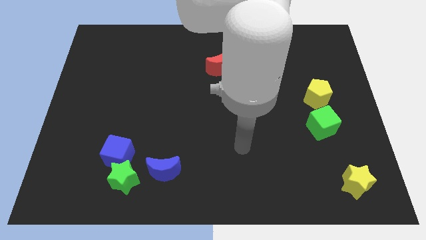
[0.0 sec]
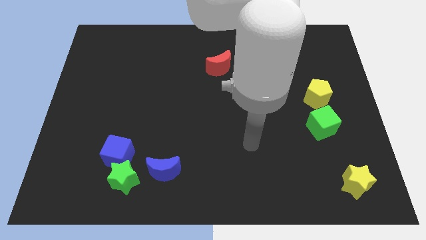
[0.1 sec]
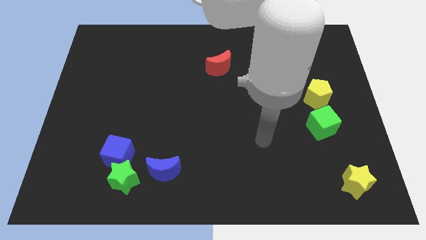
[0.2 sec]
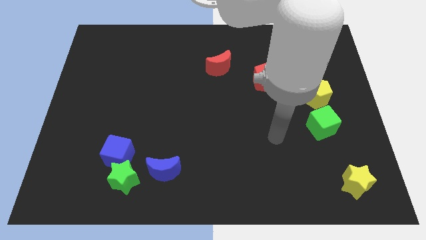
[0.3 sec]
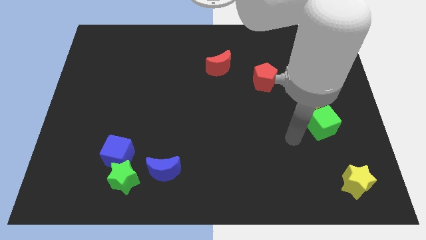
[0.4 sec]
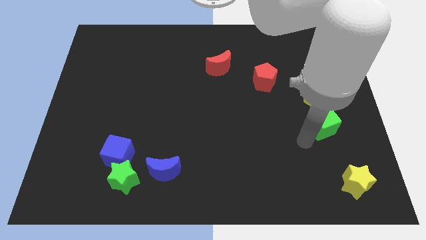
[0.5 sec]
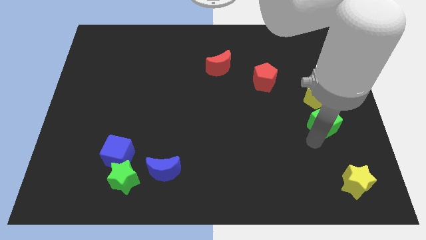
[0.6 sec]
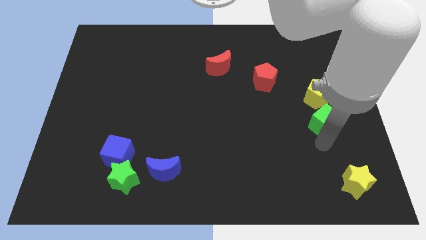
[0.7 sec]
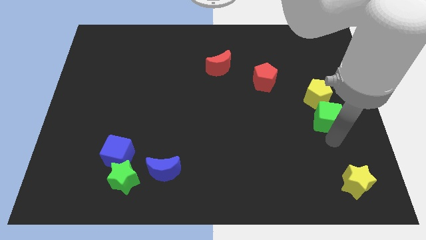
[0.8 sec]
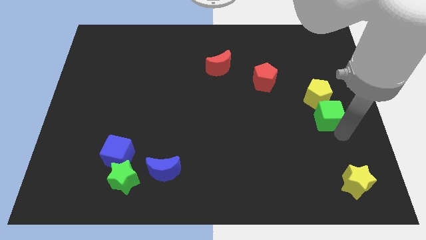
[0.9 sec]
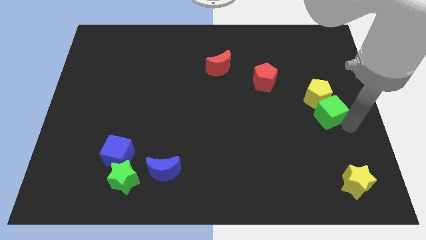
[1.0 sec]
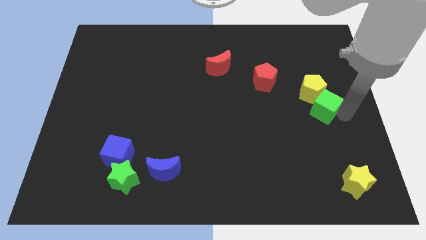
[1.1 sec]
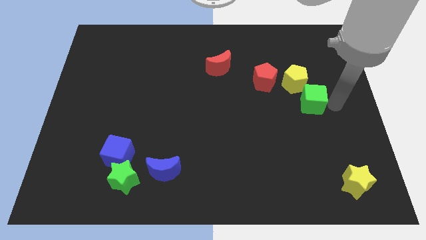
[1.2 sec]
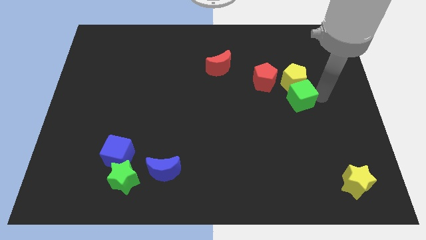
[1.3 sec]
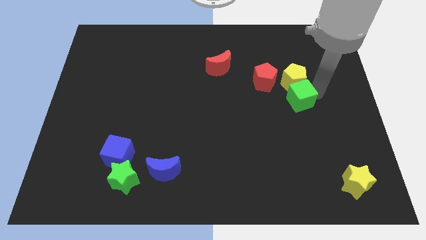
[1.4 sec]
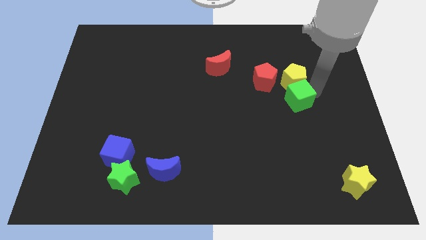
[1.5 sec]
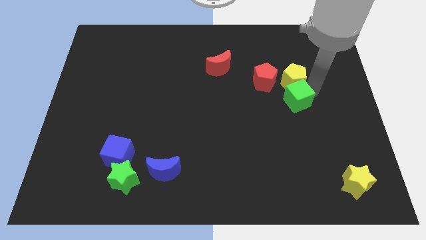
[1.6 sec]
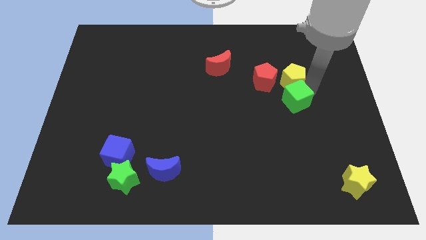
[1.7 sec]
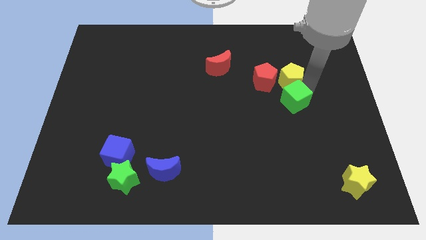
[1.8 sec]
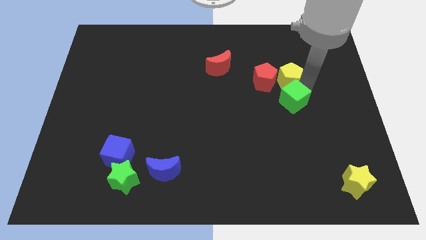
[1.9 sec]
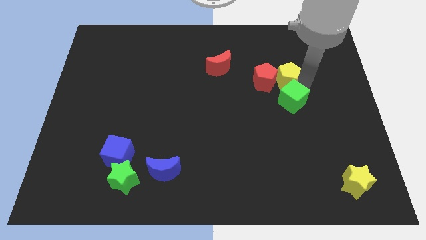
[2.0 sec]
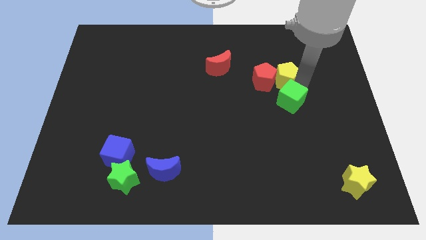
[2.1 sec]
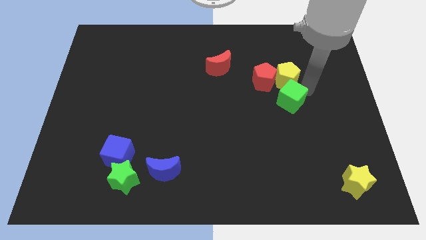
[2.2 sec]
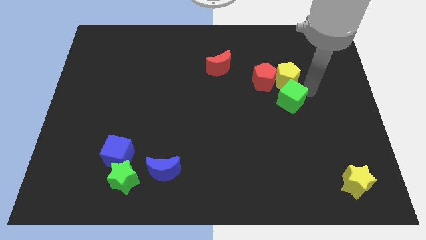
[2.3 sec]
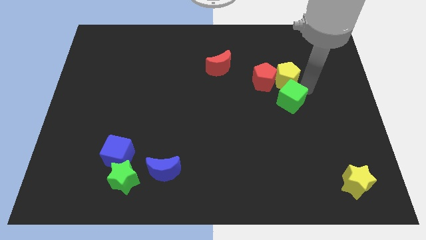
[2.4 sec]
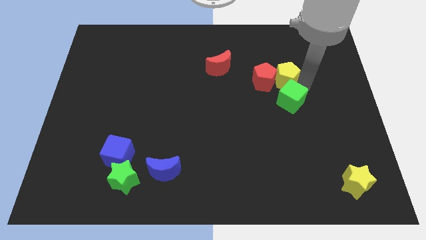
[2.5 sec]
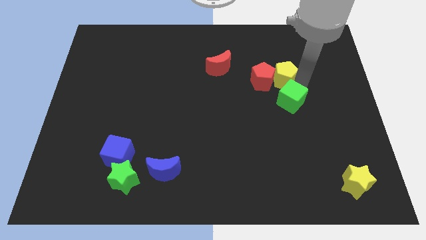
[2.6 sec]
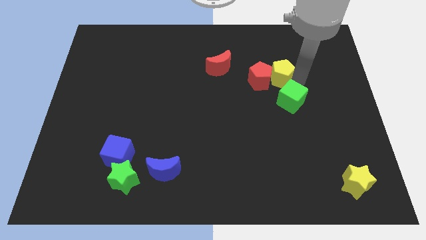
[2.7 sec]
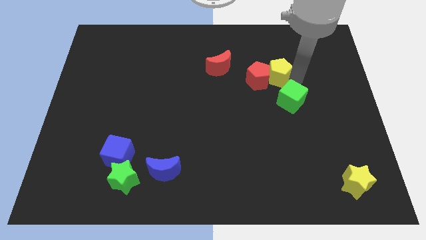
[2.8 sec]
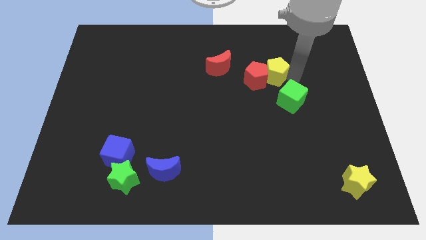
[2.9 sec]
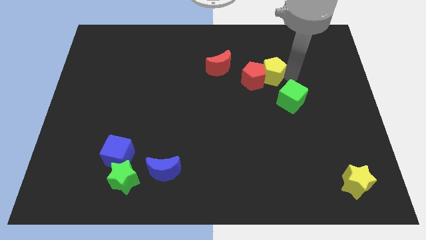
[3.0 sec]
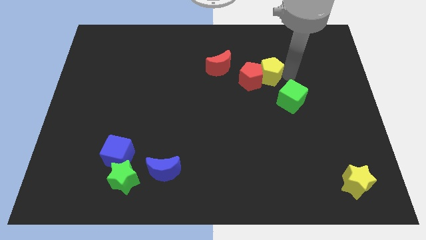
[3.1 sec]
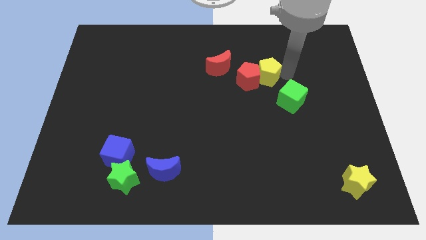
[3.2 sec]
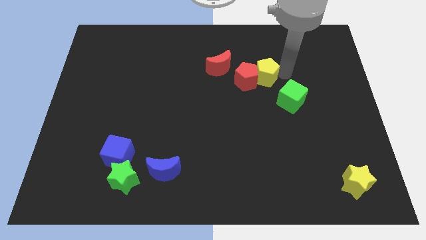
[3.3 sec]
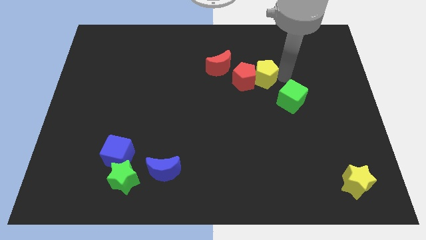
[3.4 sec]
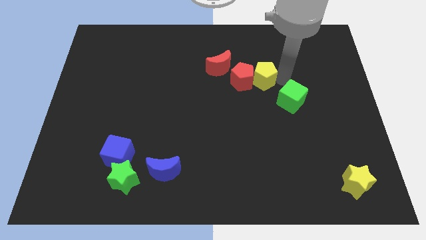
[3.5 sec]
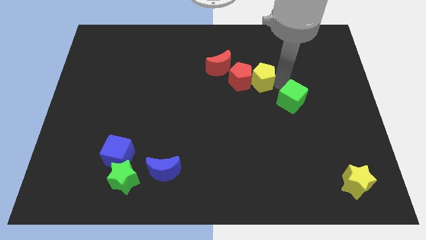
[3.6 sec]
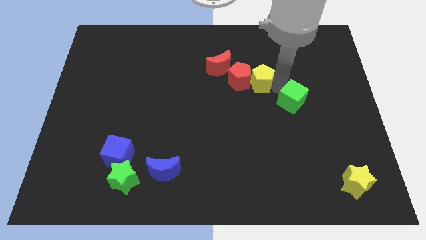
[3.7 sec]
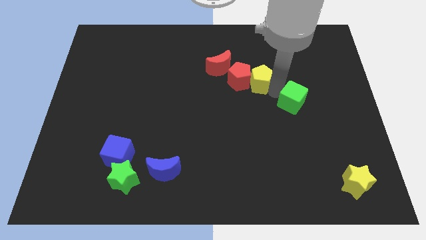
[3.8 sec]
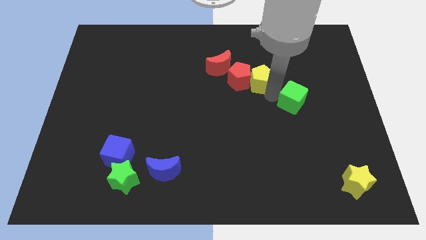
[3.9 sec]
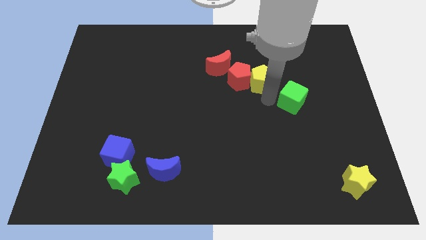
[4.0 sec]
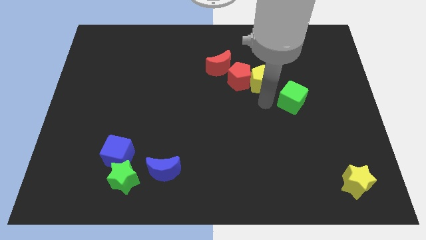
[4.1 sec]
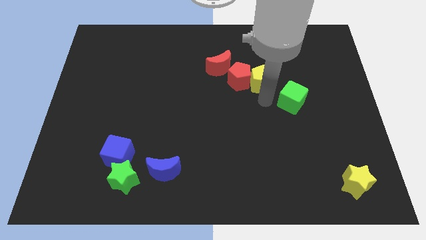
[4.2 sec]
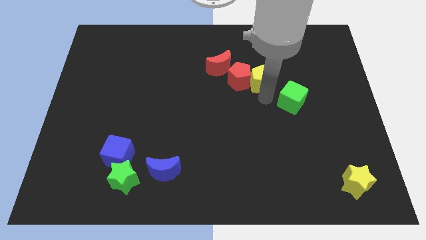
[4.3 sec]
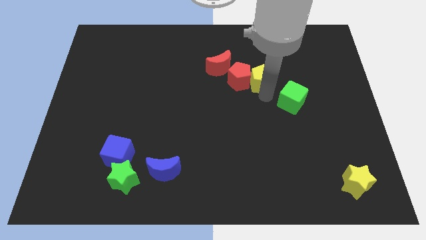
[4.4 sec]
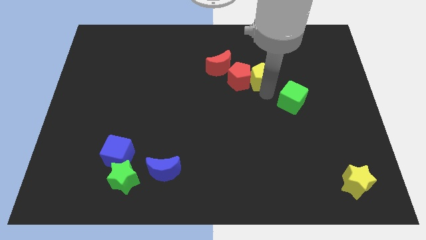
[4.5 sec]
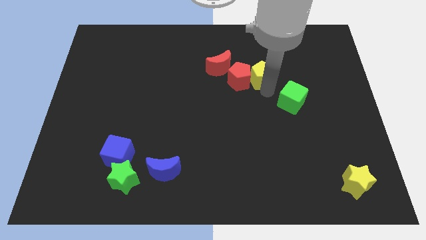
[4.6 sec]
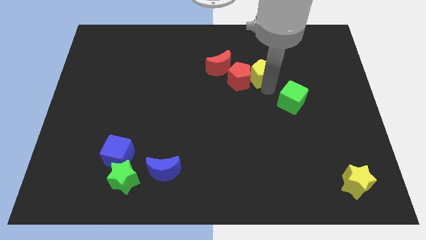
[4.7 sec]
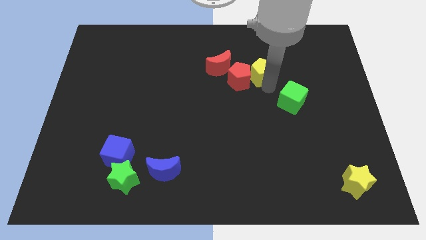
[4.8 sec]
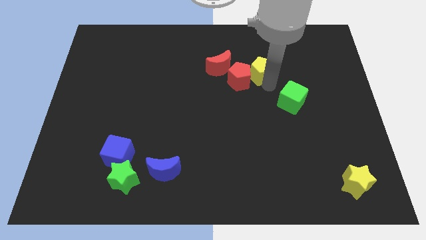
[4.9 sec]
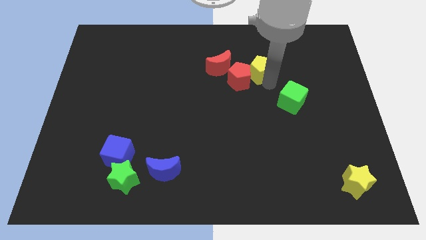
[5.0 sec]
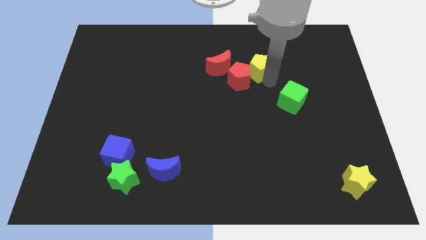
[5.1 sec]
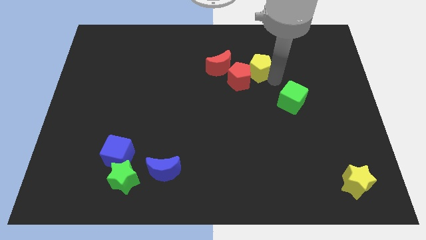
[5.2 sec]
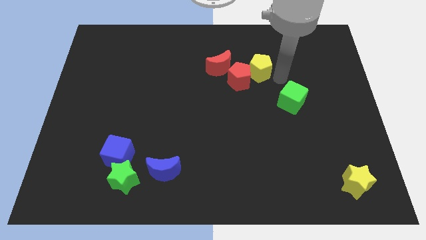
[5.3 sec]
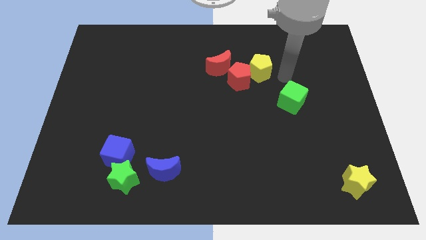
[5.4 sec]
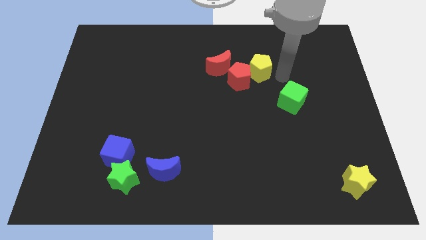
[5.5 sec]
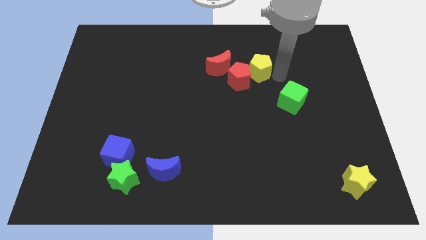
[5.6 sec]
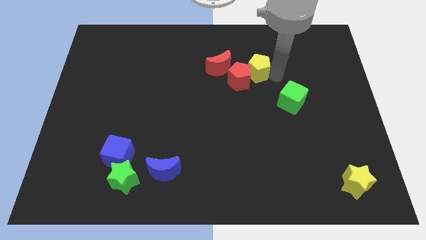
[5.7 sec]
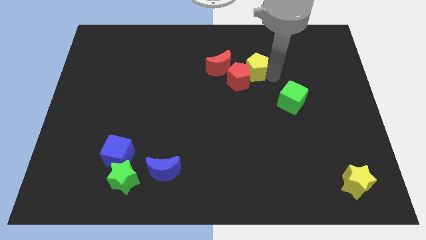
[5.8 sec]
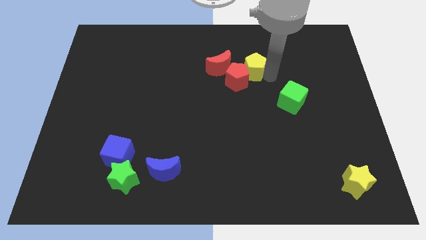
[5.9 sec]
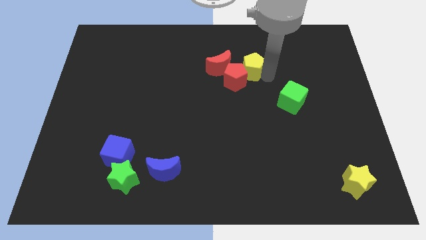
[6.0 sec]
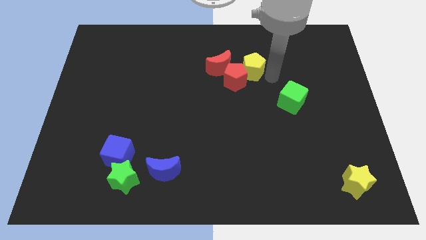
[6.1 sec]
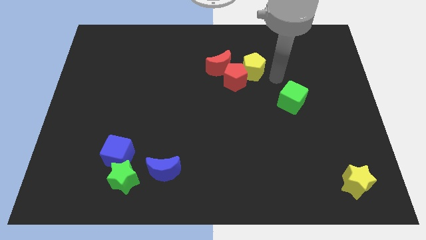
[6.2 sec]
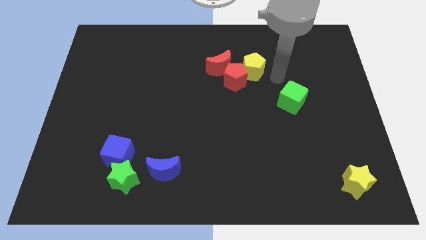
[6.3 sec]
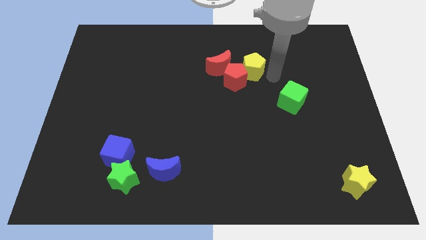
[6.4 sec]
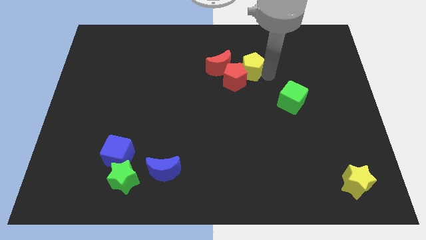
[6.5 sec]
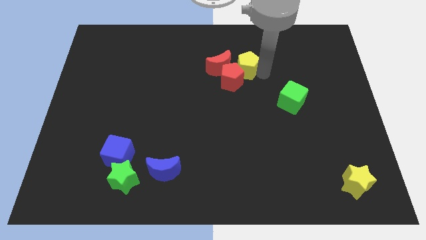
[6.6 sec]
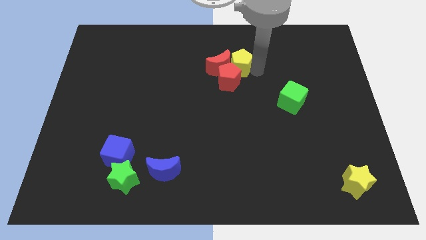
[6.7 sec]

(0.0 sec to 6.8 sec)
push the yellow pentagon to the red moon

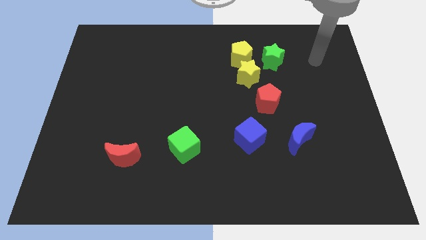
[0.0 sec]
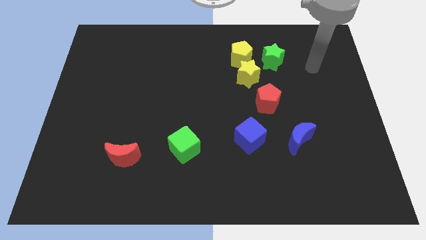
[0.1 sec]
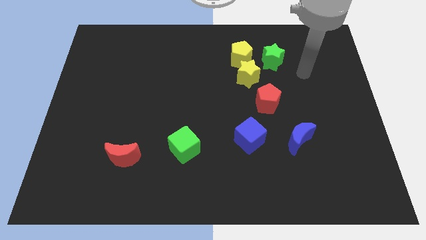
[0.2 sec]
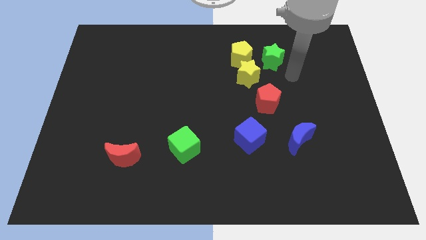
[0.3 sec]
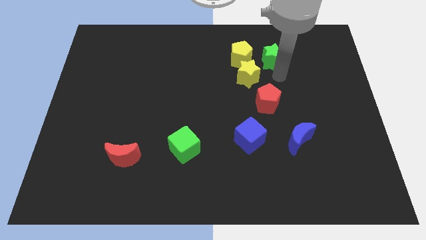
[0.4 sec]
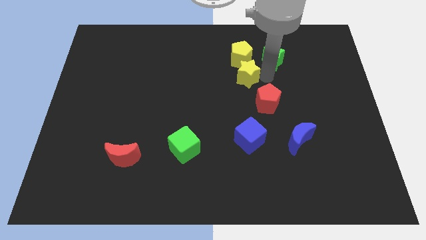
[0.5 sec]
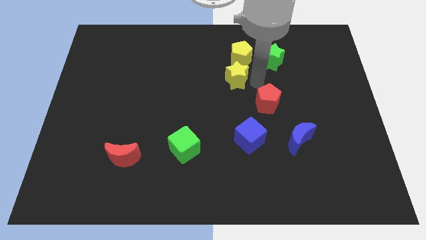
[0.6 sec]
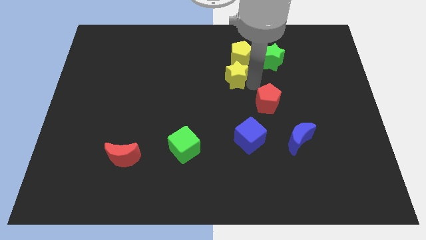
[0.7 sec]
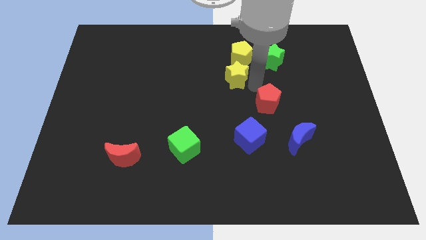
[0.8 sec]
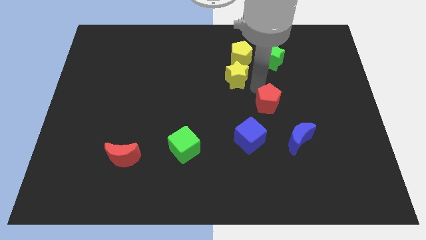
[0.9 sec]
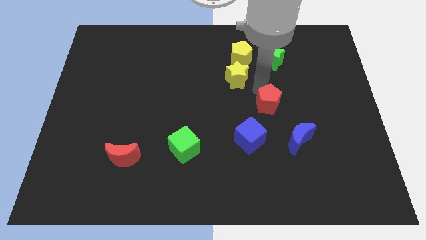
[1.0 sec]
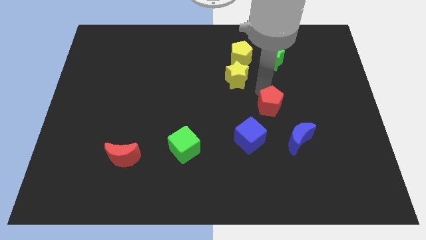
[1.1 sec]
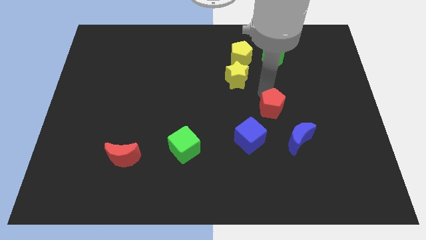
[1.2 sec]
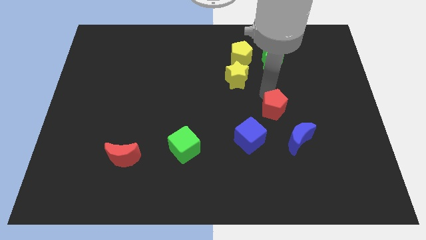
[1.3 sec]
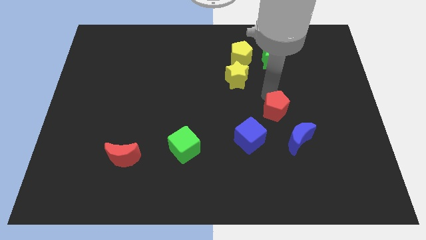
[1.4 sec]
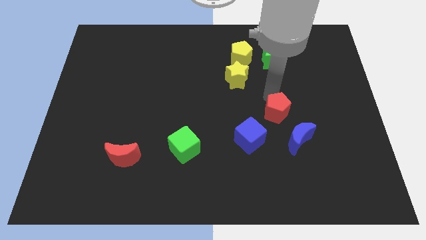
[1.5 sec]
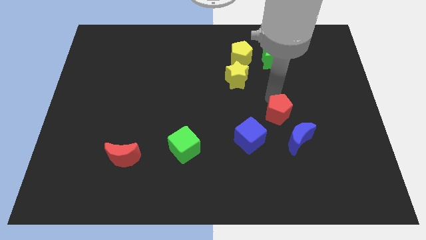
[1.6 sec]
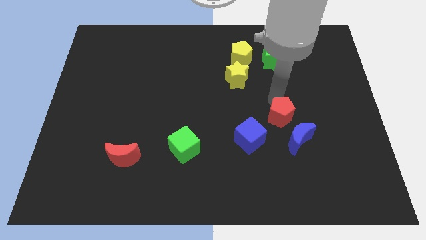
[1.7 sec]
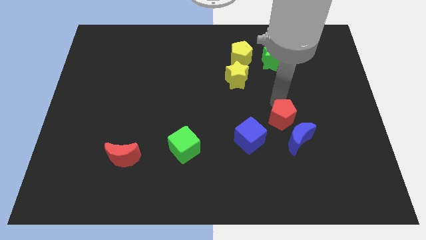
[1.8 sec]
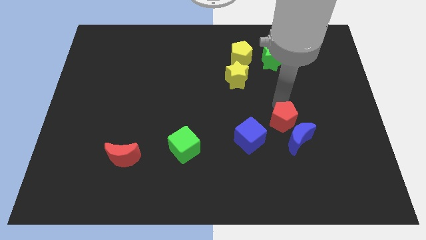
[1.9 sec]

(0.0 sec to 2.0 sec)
slide the red pentagon towards the blue moon
